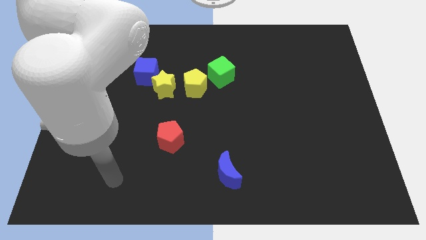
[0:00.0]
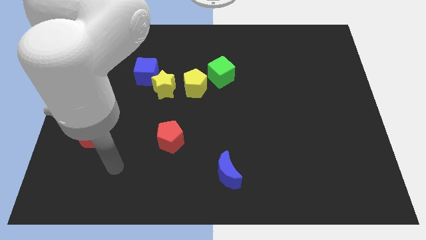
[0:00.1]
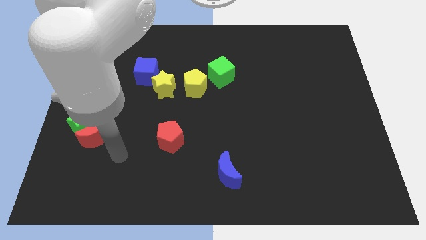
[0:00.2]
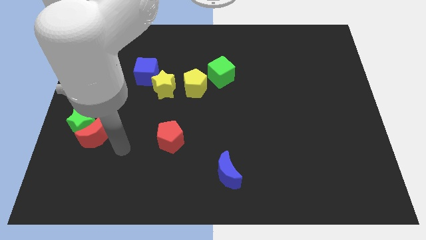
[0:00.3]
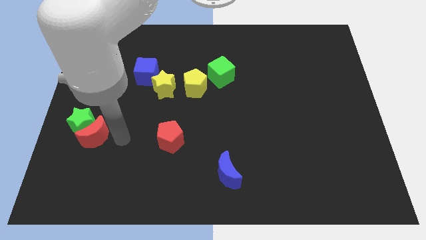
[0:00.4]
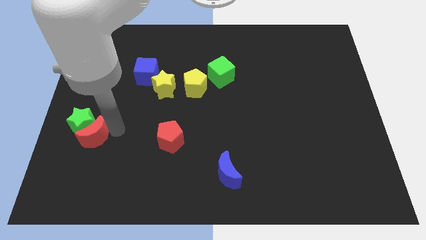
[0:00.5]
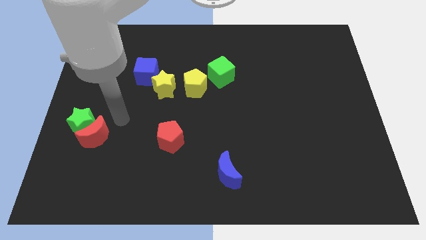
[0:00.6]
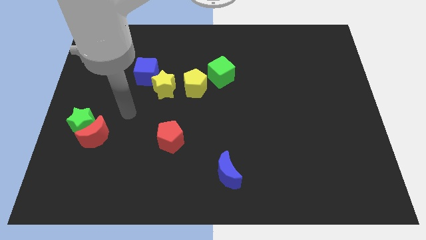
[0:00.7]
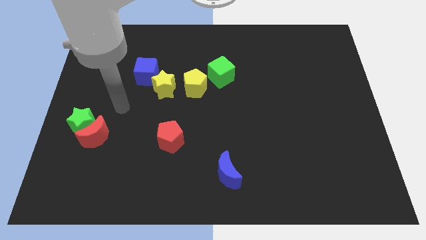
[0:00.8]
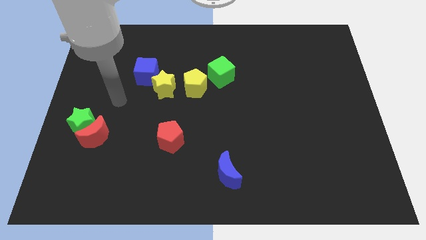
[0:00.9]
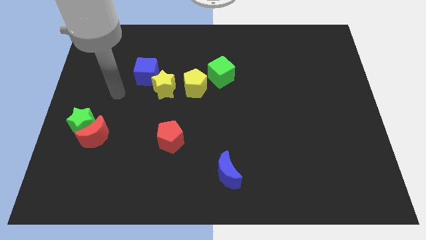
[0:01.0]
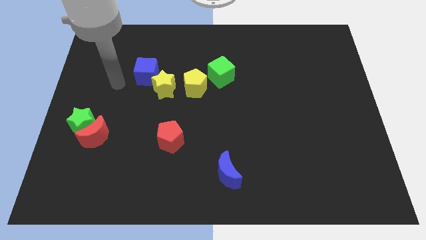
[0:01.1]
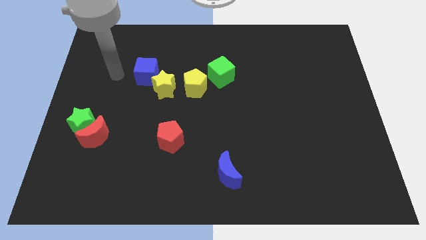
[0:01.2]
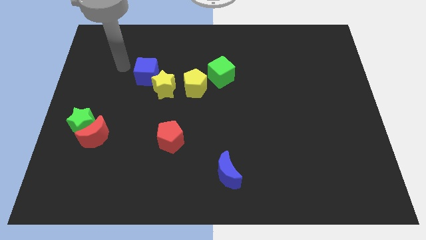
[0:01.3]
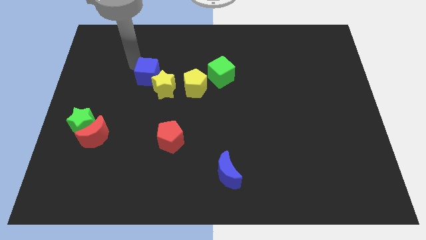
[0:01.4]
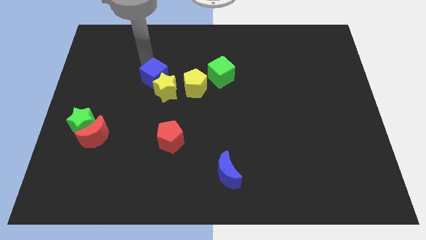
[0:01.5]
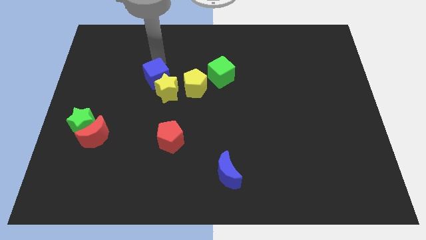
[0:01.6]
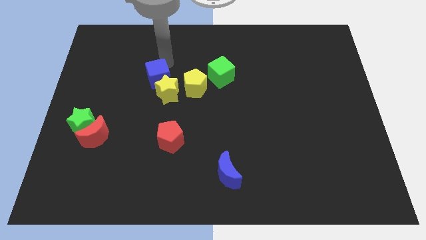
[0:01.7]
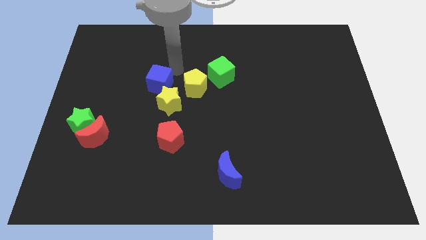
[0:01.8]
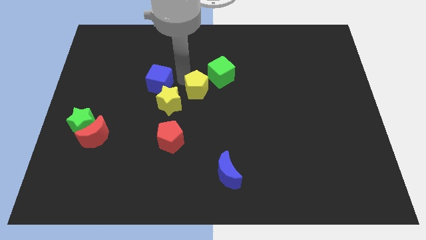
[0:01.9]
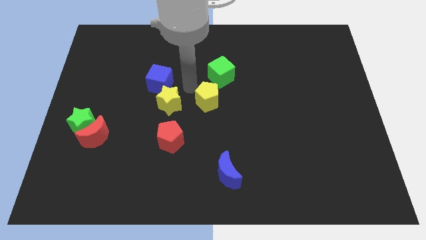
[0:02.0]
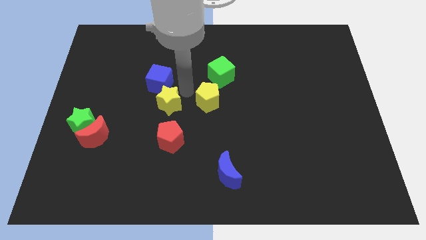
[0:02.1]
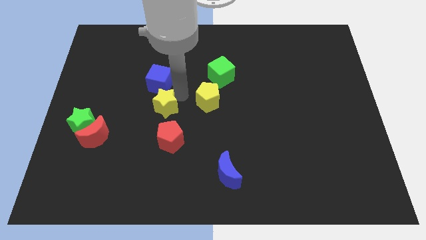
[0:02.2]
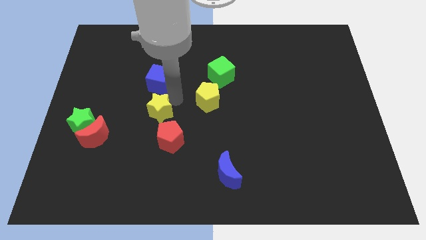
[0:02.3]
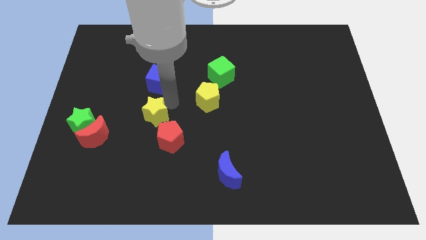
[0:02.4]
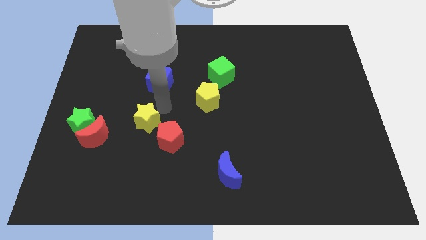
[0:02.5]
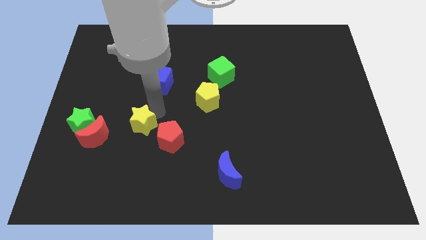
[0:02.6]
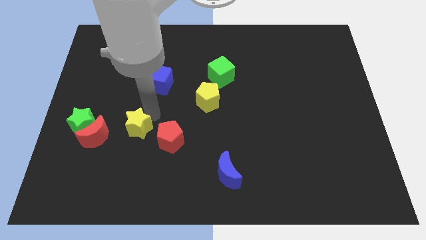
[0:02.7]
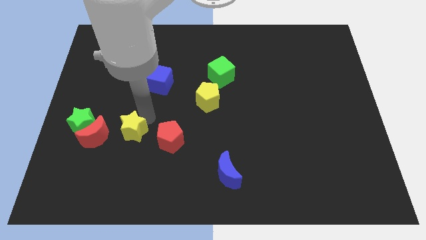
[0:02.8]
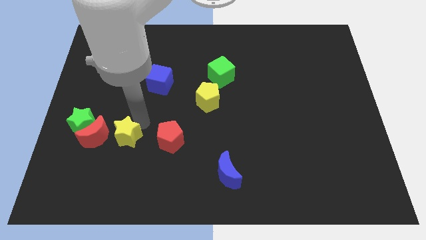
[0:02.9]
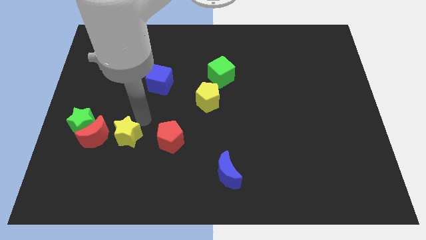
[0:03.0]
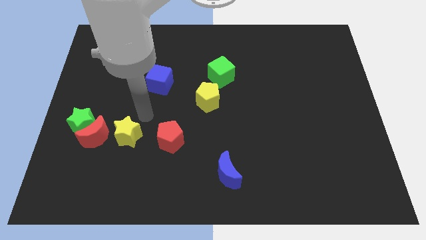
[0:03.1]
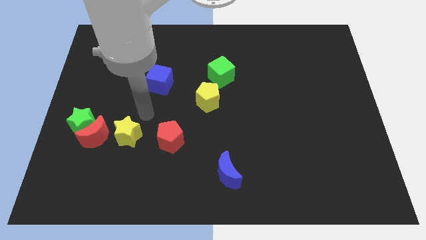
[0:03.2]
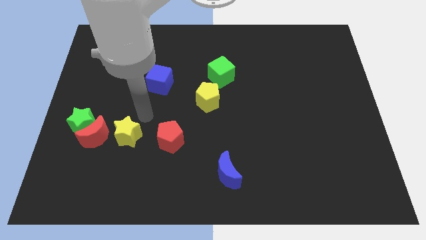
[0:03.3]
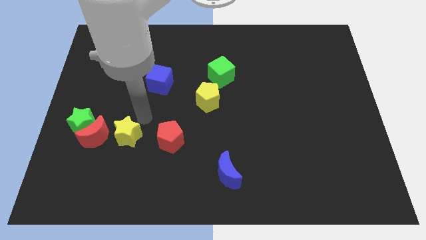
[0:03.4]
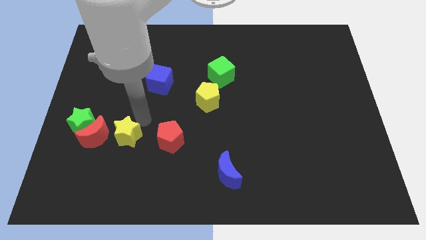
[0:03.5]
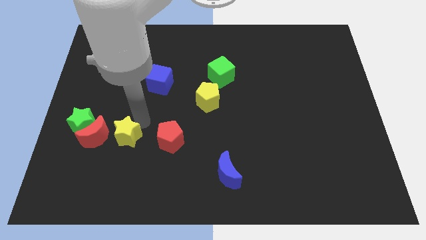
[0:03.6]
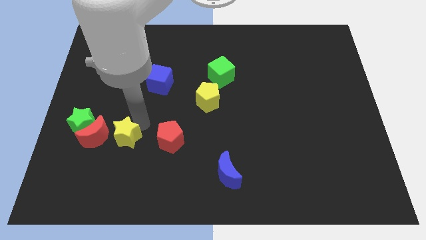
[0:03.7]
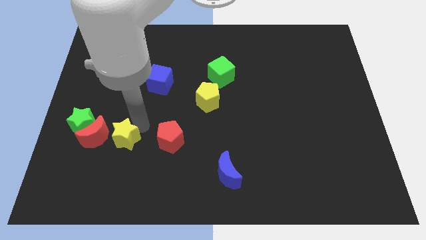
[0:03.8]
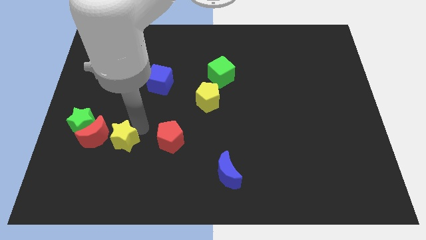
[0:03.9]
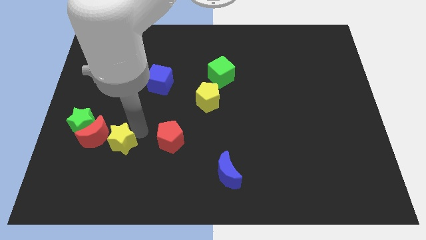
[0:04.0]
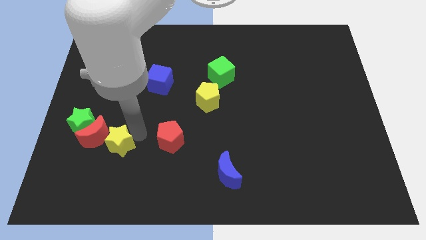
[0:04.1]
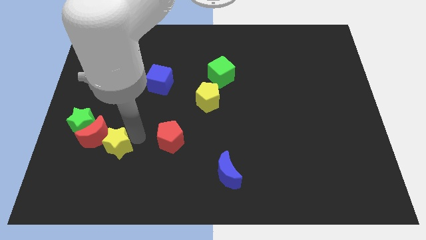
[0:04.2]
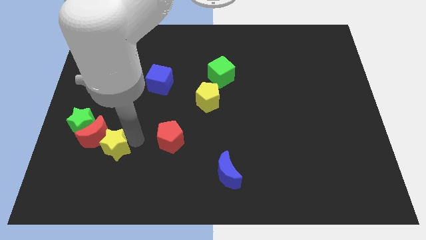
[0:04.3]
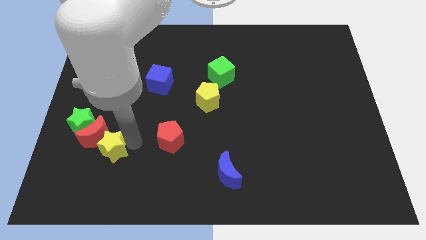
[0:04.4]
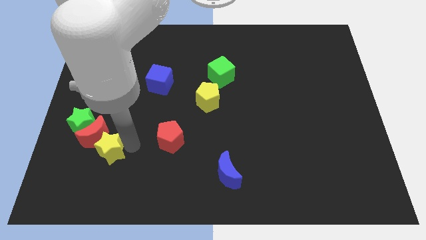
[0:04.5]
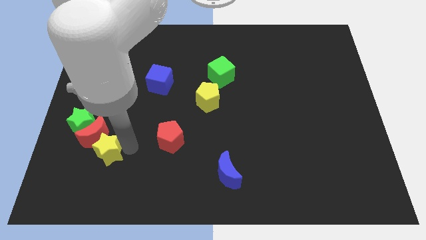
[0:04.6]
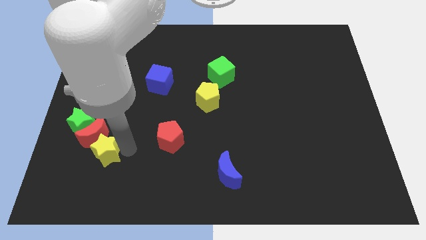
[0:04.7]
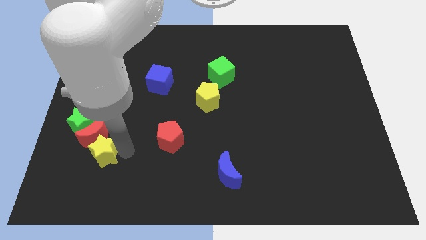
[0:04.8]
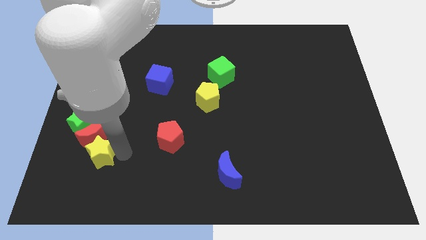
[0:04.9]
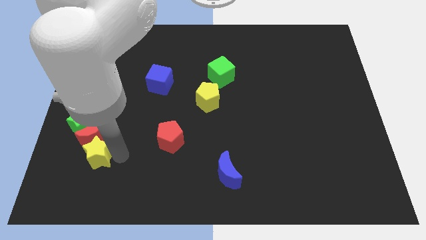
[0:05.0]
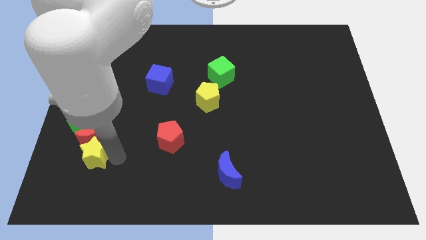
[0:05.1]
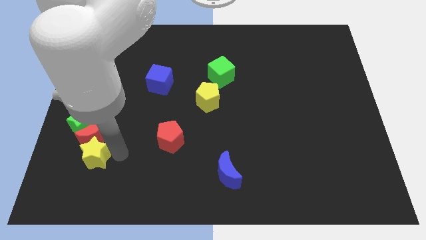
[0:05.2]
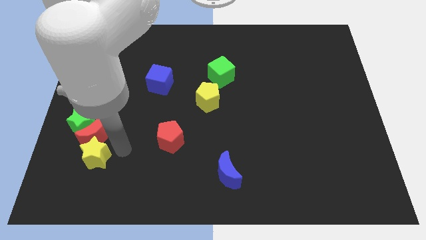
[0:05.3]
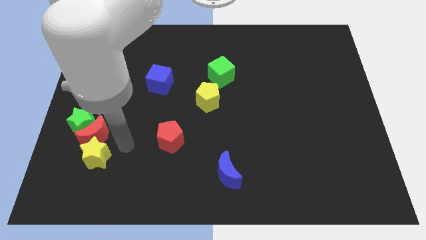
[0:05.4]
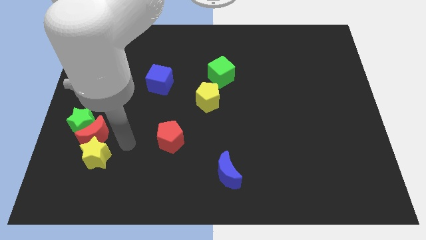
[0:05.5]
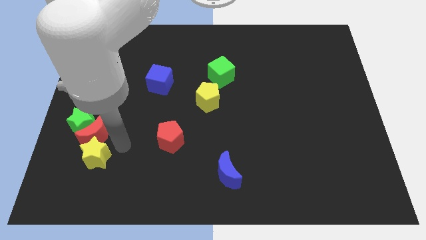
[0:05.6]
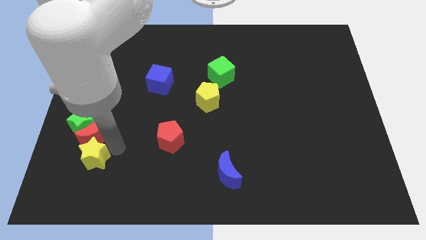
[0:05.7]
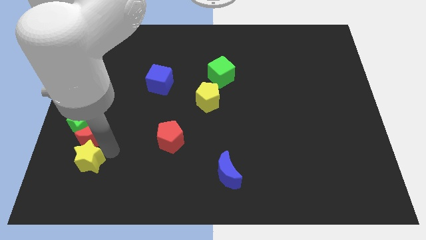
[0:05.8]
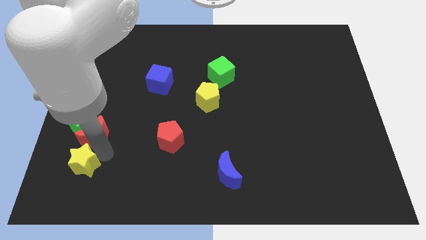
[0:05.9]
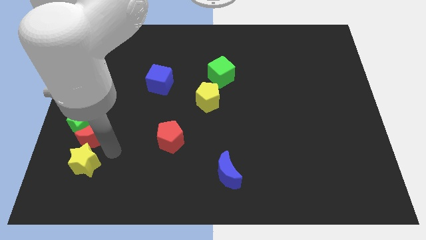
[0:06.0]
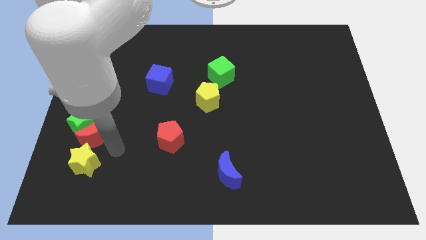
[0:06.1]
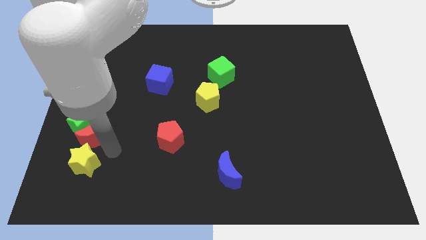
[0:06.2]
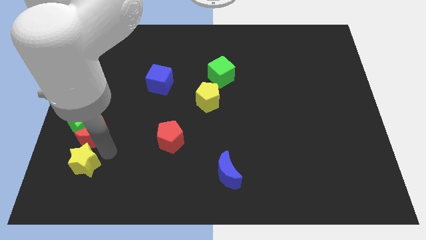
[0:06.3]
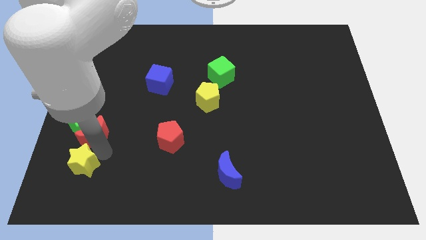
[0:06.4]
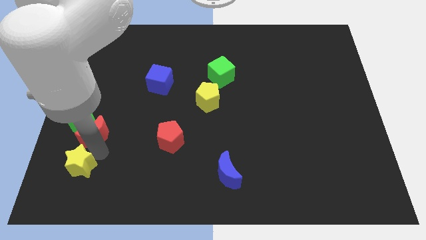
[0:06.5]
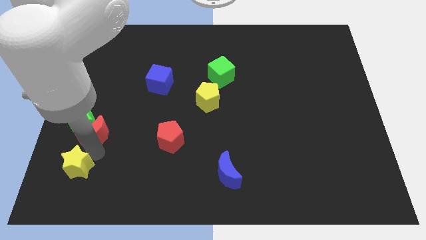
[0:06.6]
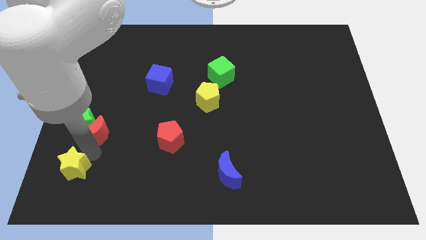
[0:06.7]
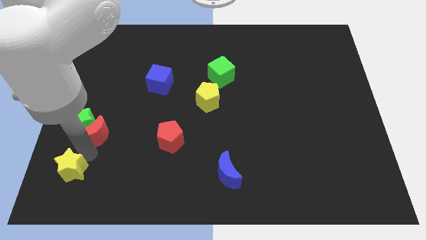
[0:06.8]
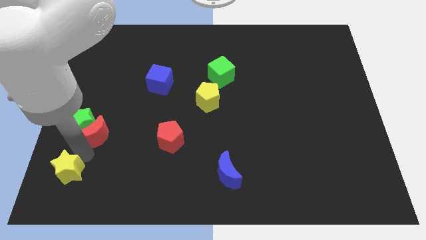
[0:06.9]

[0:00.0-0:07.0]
move the yellow star to the lower left corner

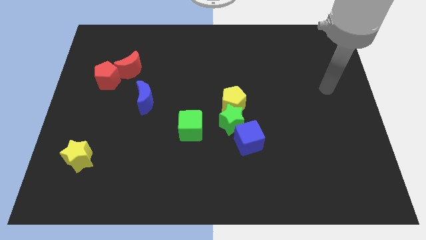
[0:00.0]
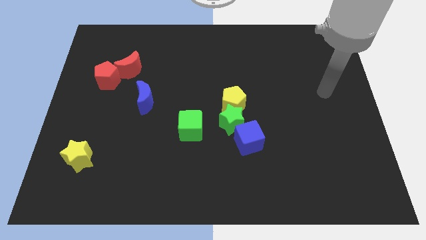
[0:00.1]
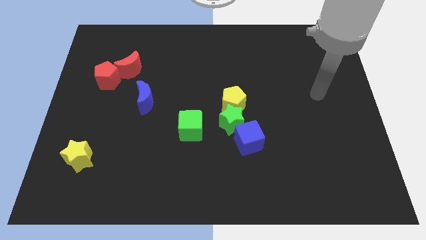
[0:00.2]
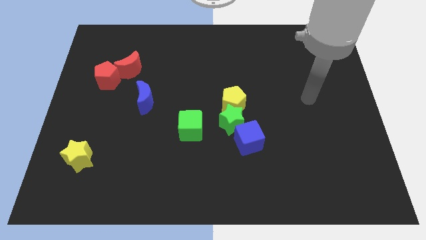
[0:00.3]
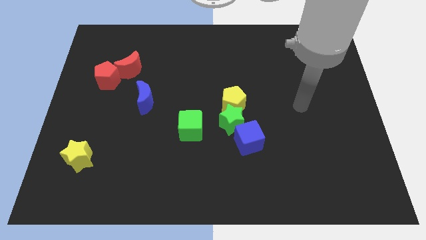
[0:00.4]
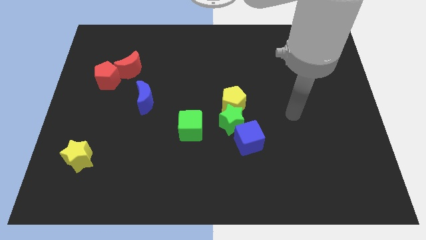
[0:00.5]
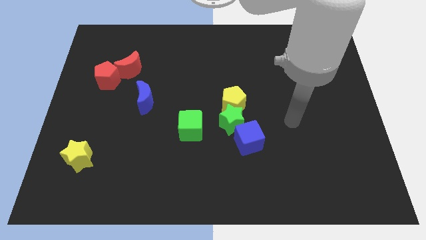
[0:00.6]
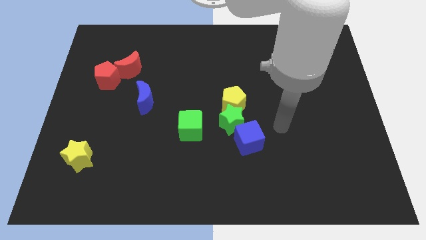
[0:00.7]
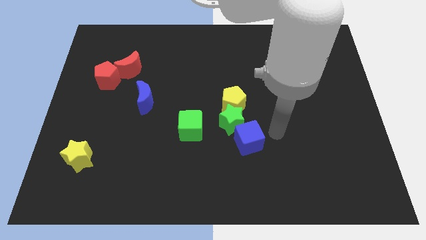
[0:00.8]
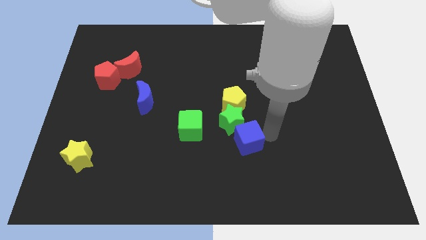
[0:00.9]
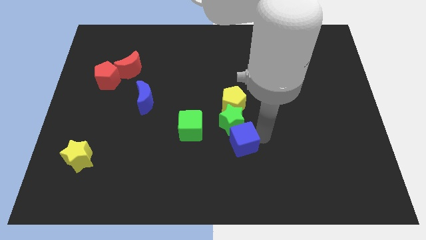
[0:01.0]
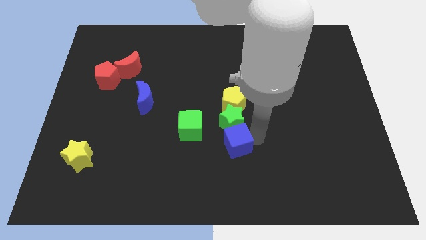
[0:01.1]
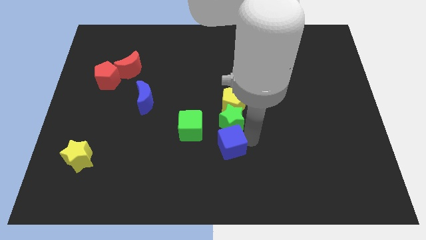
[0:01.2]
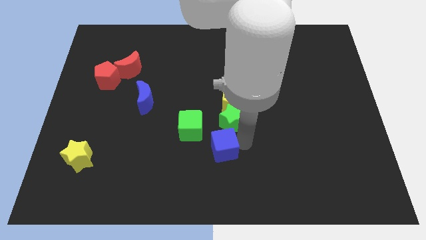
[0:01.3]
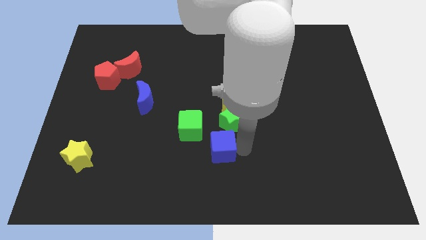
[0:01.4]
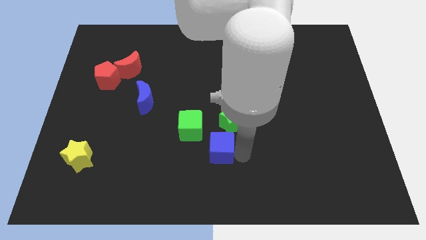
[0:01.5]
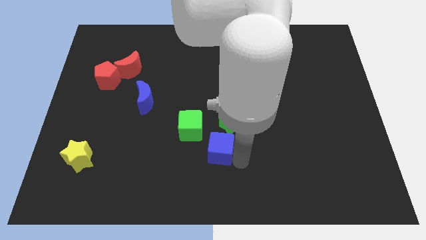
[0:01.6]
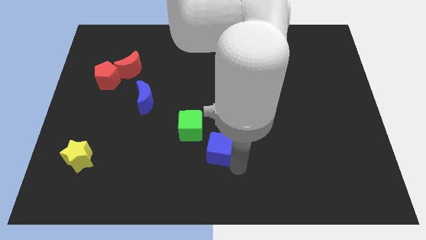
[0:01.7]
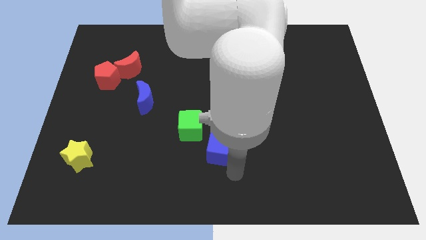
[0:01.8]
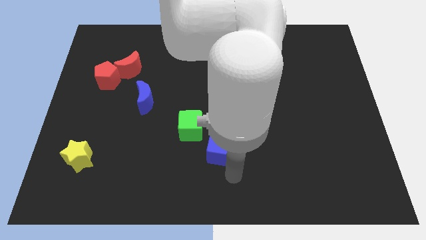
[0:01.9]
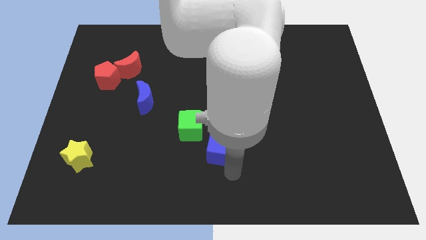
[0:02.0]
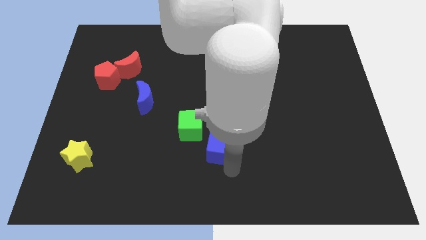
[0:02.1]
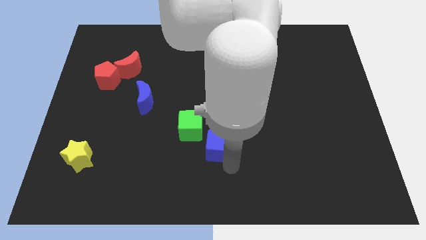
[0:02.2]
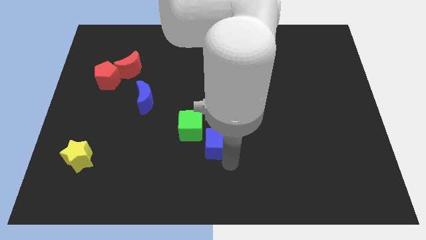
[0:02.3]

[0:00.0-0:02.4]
push the blue cube to the center
